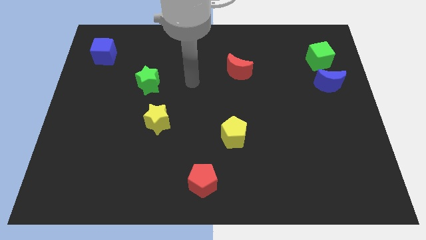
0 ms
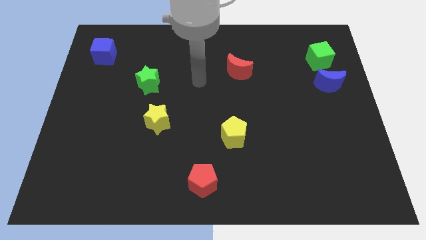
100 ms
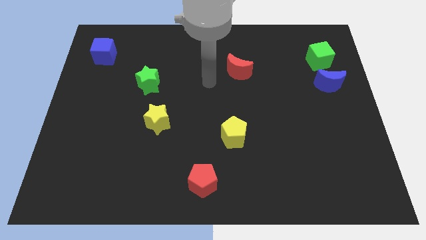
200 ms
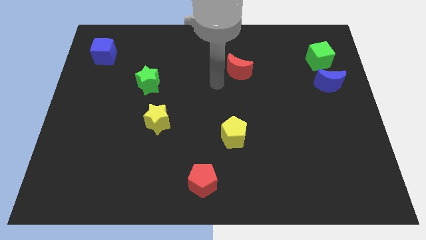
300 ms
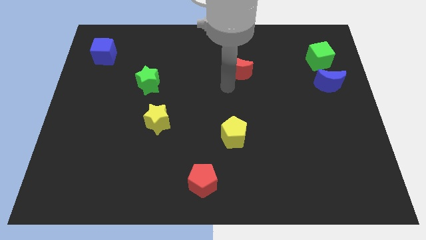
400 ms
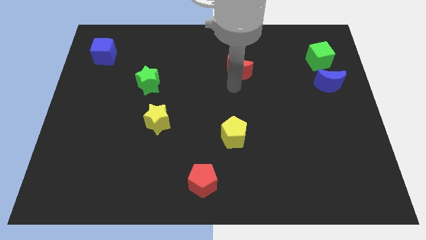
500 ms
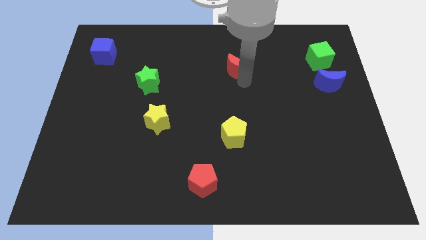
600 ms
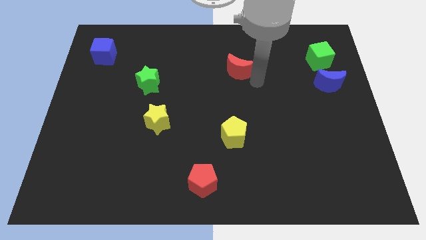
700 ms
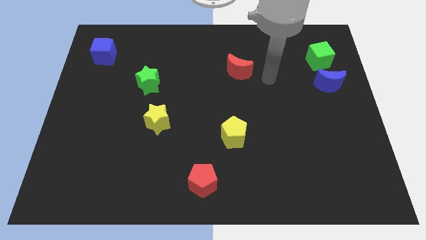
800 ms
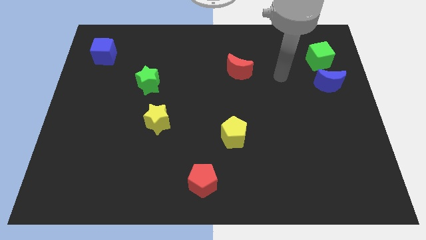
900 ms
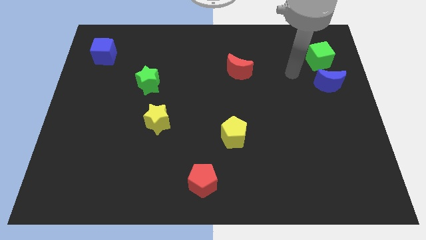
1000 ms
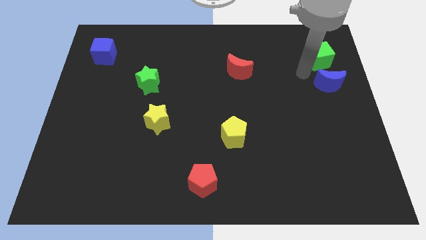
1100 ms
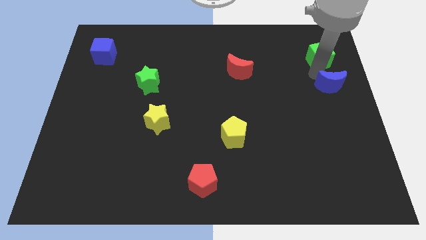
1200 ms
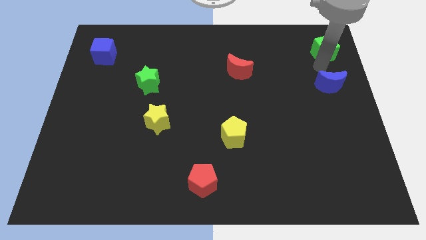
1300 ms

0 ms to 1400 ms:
separate the blue moon from the green cube

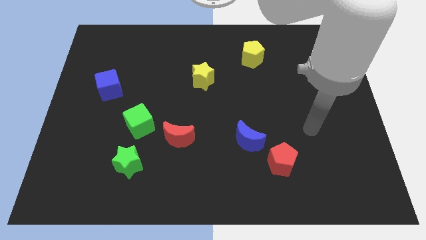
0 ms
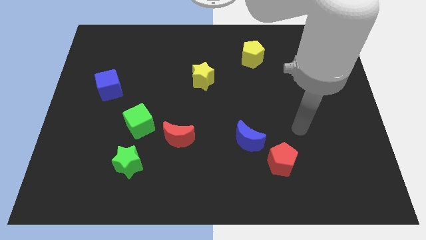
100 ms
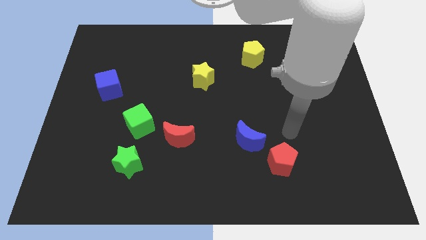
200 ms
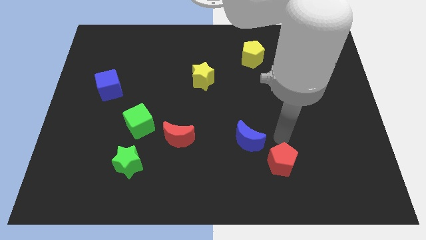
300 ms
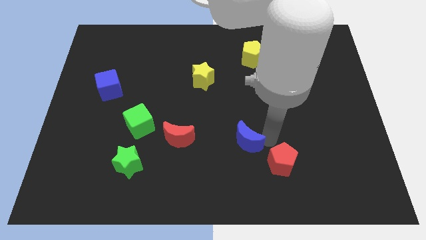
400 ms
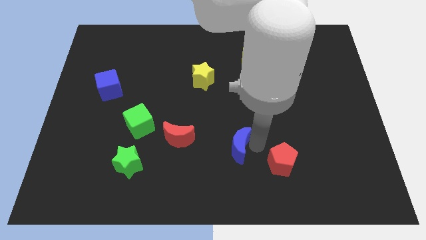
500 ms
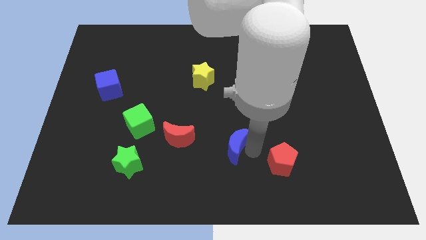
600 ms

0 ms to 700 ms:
pull the red pentagon apart from the blue moon

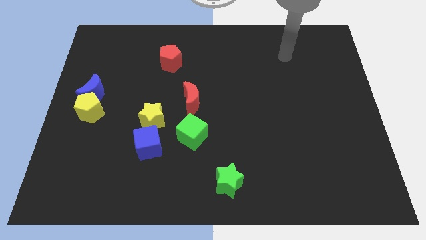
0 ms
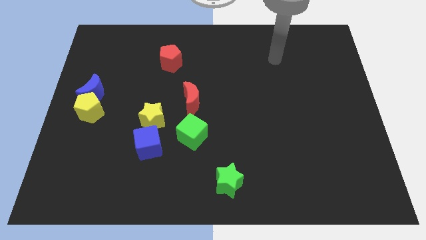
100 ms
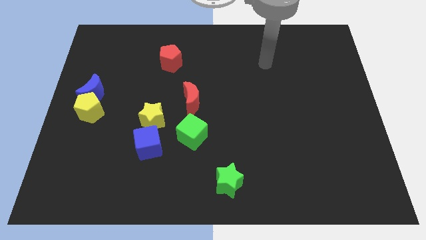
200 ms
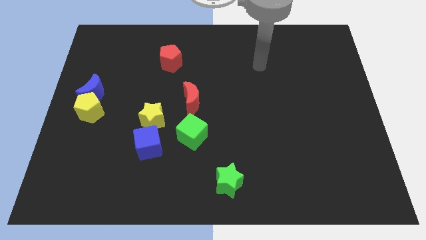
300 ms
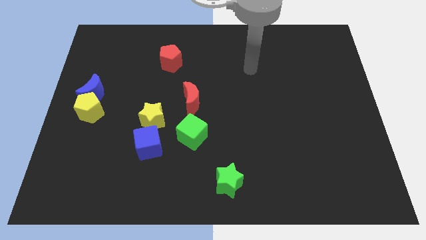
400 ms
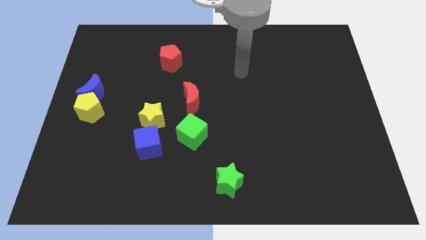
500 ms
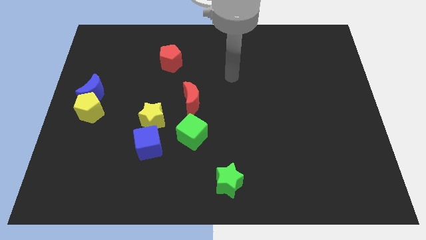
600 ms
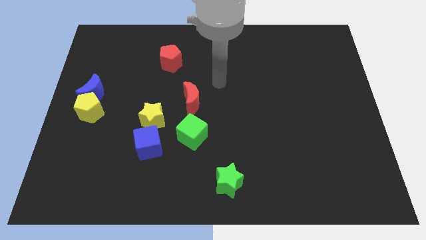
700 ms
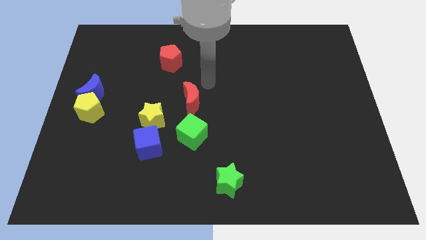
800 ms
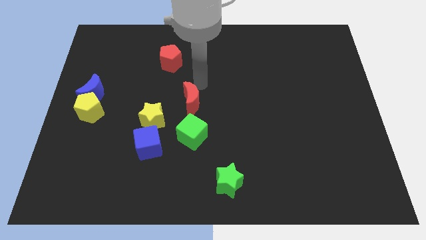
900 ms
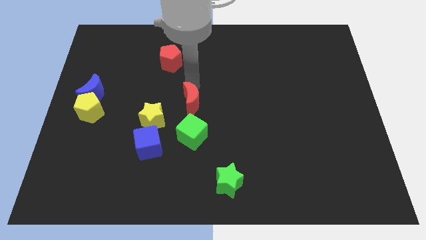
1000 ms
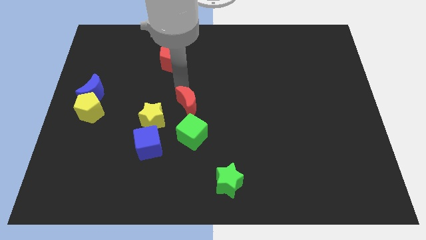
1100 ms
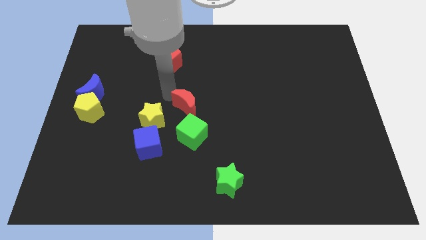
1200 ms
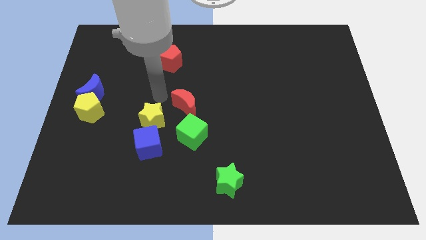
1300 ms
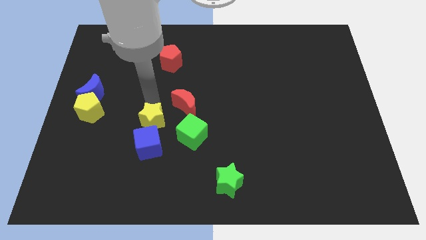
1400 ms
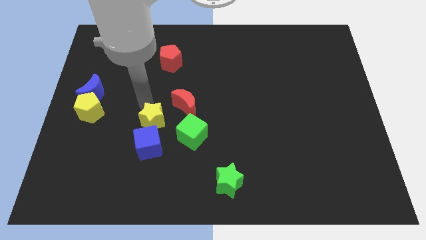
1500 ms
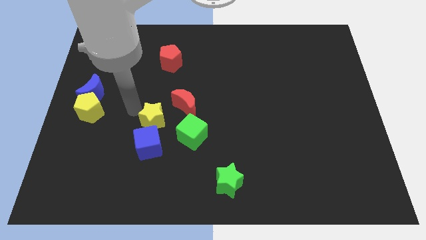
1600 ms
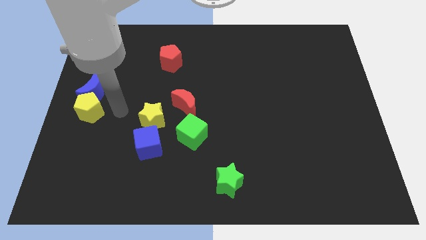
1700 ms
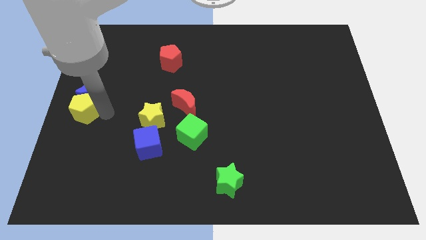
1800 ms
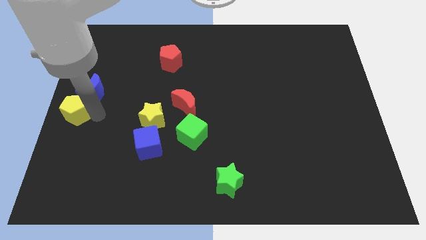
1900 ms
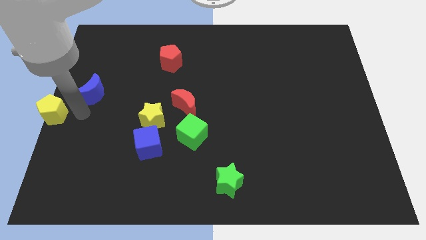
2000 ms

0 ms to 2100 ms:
move the blue moon away from the yellow pentagon

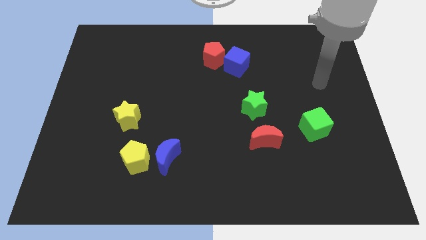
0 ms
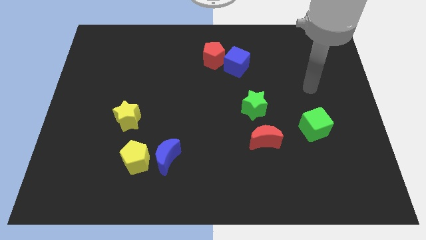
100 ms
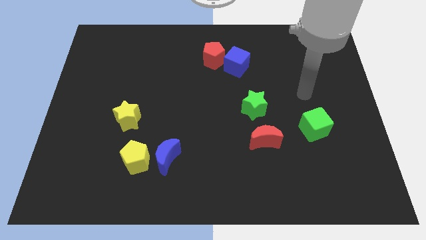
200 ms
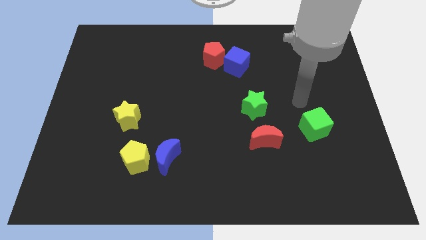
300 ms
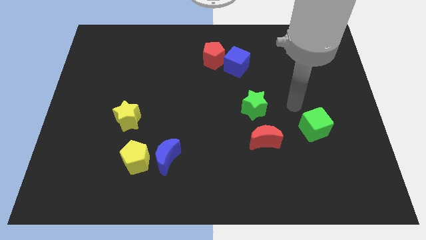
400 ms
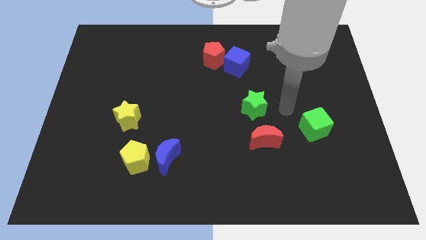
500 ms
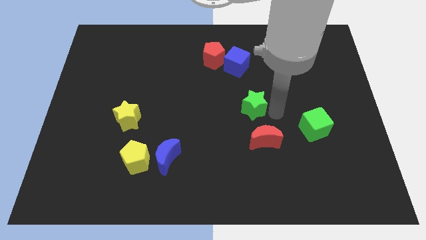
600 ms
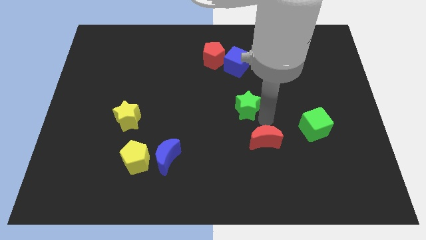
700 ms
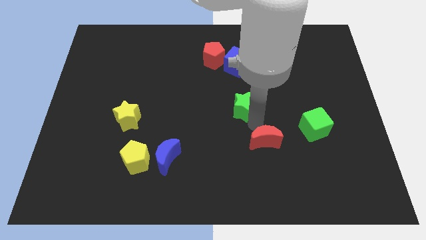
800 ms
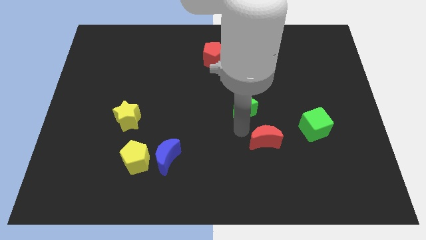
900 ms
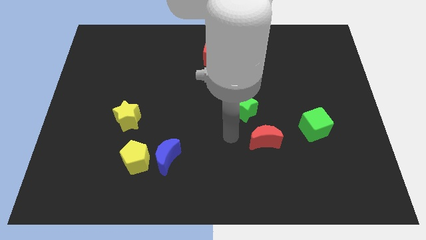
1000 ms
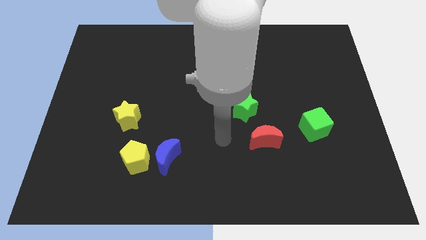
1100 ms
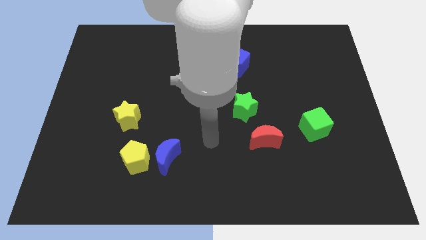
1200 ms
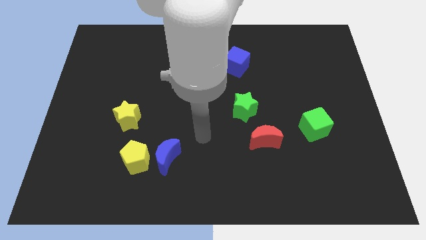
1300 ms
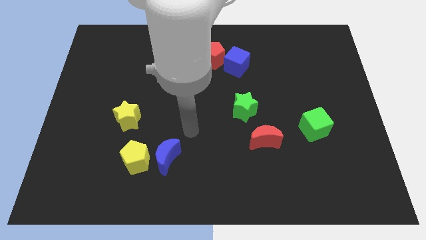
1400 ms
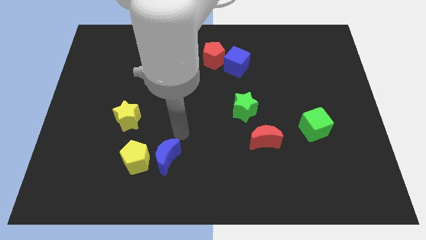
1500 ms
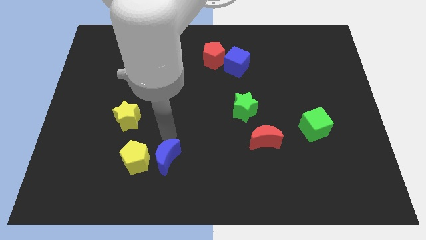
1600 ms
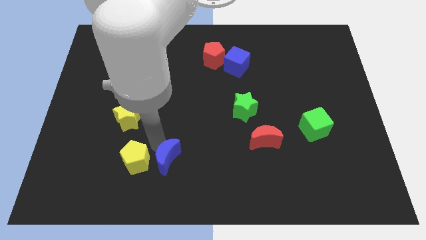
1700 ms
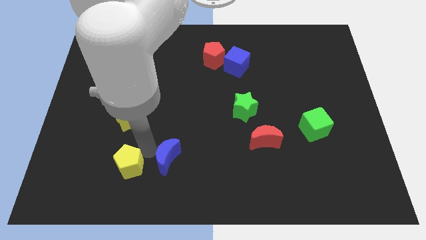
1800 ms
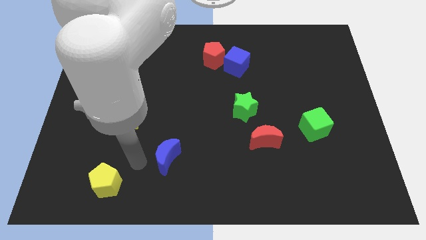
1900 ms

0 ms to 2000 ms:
pull the blue moon apart from the yellow pentagon

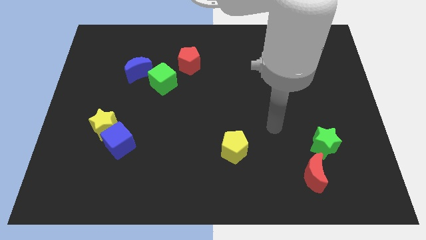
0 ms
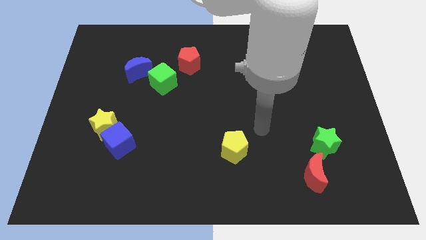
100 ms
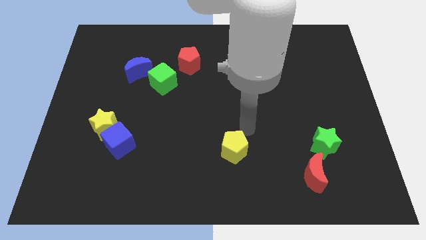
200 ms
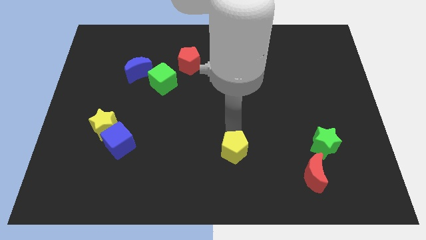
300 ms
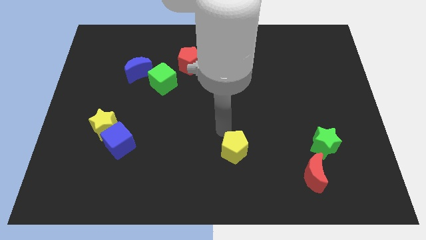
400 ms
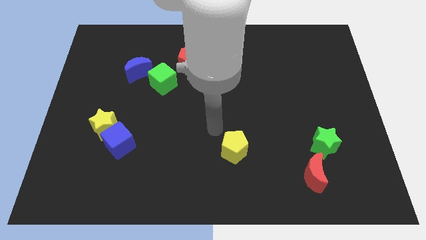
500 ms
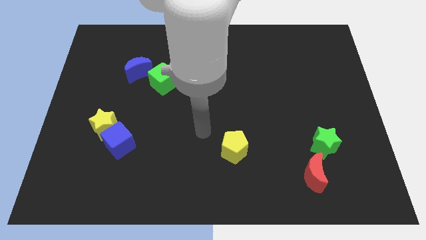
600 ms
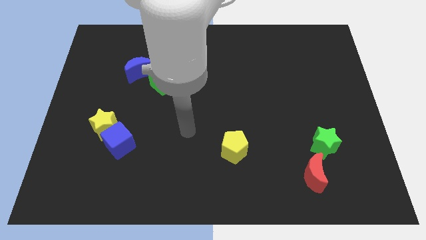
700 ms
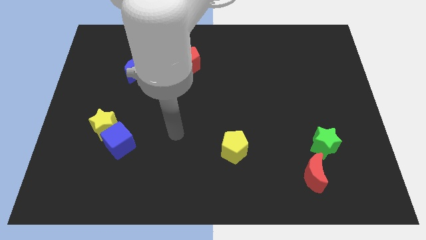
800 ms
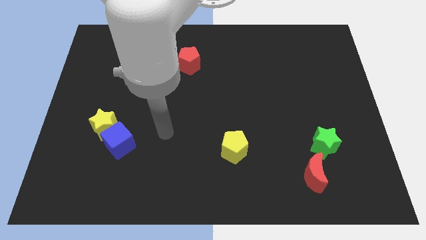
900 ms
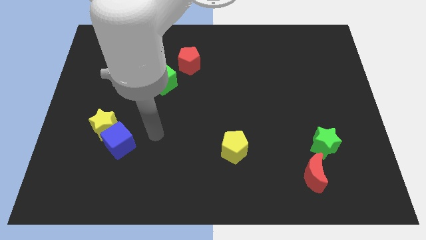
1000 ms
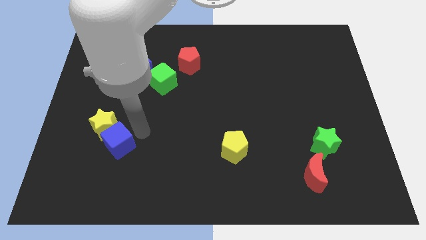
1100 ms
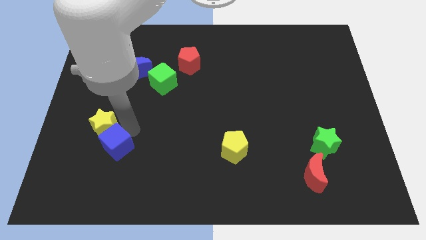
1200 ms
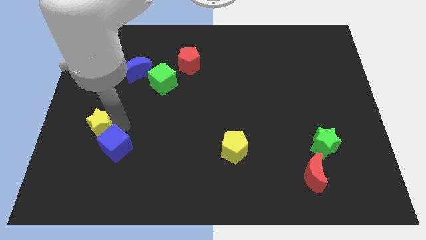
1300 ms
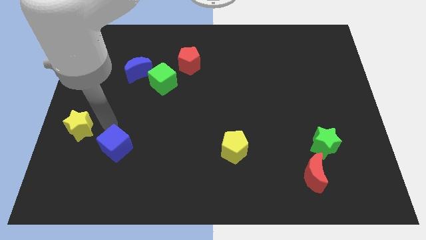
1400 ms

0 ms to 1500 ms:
move the blue cube away from the yellow star

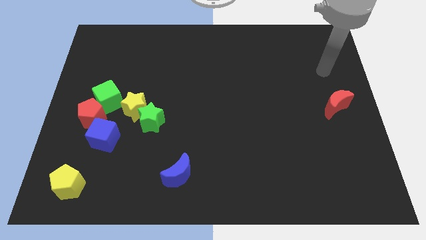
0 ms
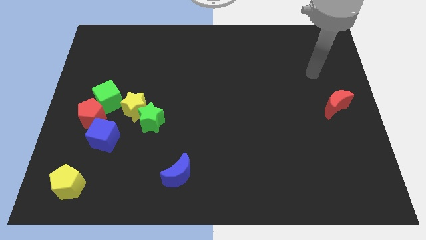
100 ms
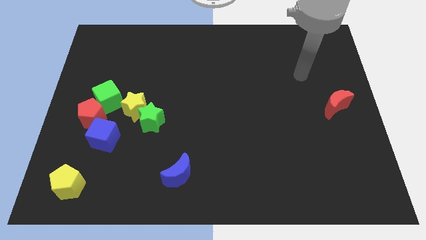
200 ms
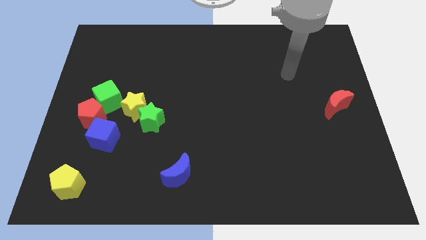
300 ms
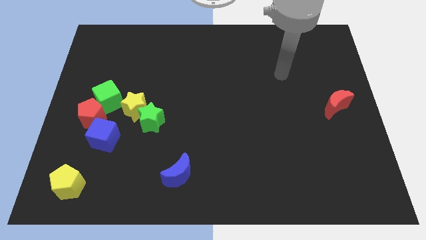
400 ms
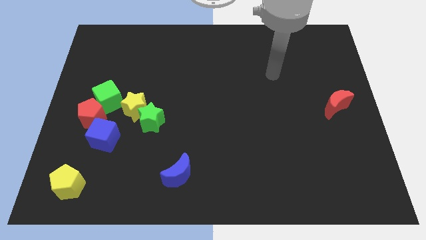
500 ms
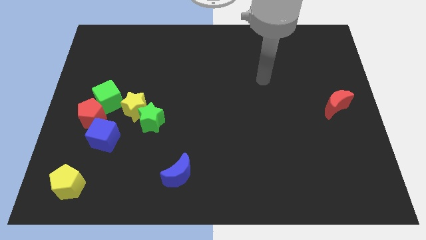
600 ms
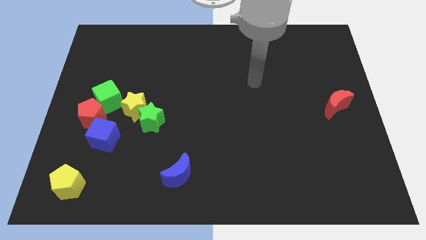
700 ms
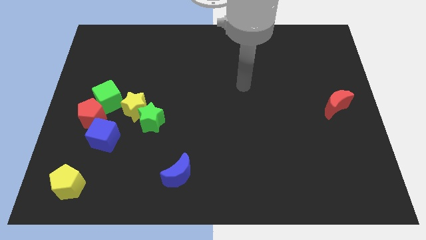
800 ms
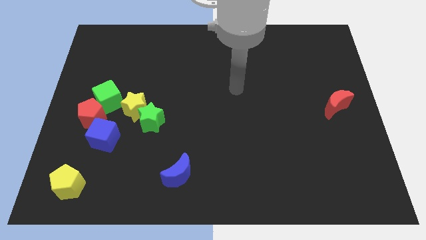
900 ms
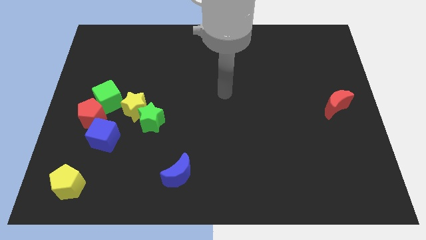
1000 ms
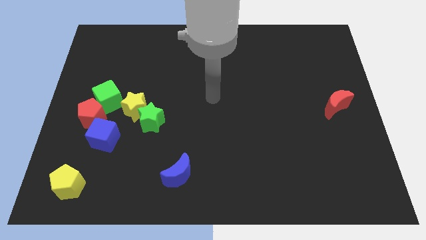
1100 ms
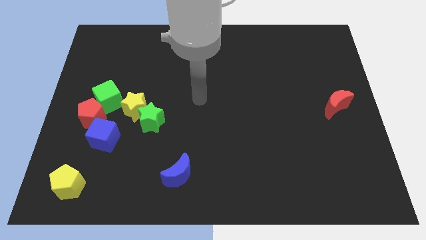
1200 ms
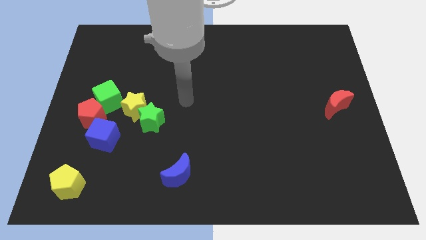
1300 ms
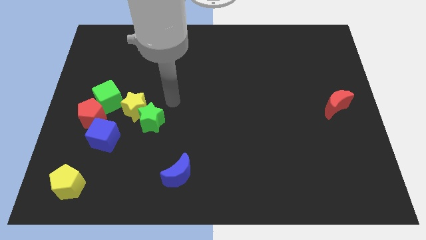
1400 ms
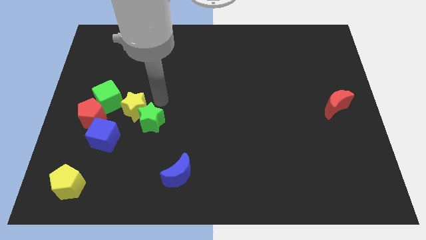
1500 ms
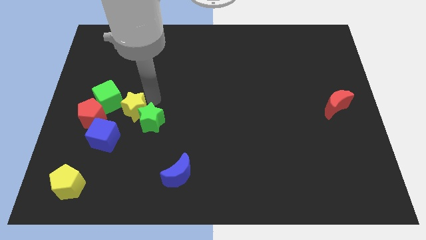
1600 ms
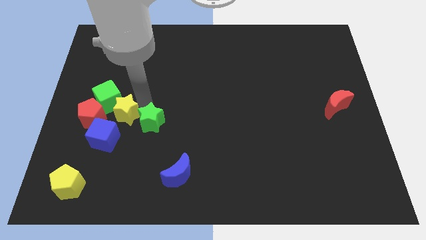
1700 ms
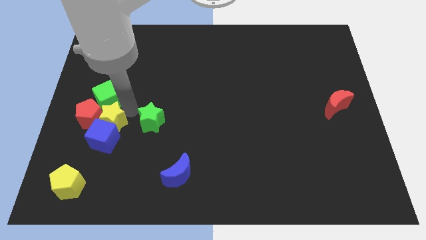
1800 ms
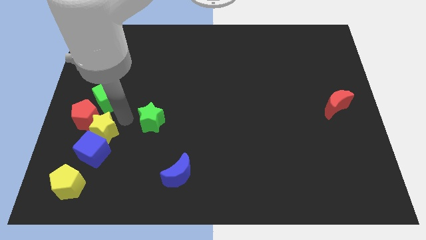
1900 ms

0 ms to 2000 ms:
separate the green star from the yellow star
